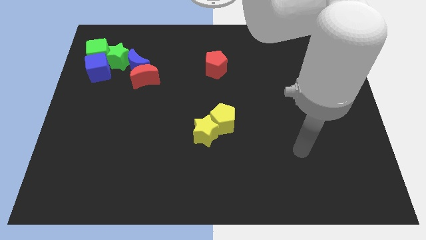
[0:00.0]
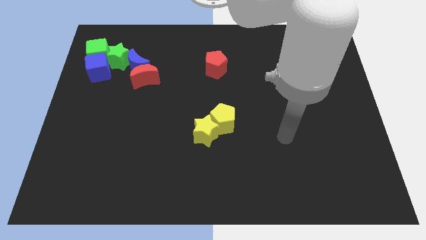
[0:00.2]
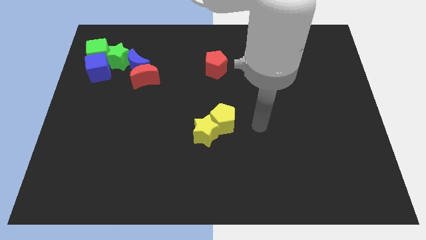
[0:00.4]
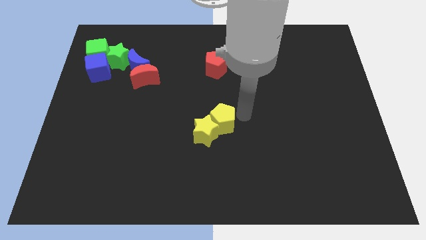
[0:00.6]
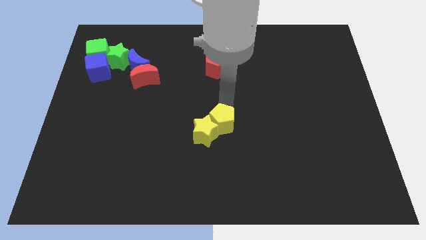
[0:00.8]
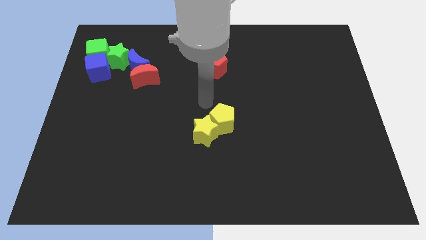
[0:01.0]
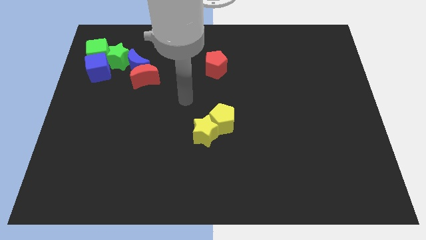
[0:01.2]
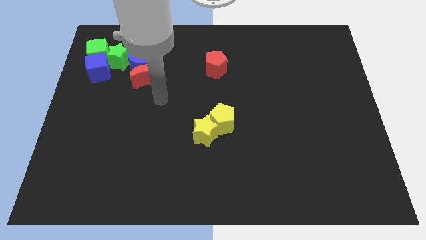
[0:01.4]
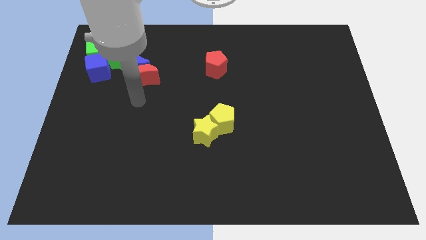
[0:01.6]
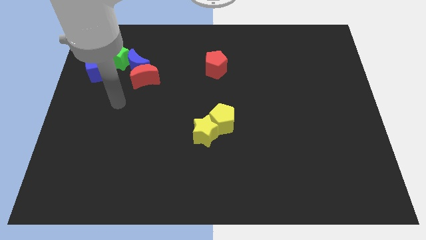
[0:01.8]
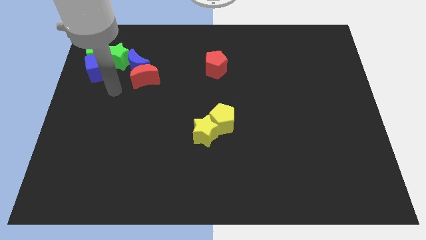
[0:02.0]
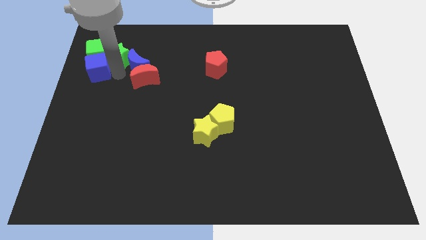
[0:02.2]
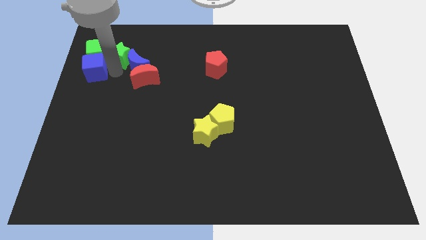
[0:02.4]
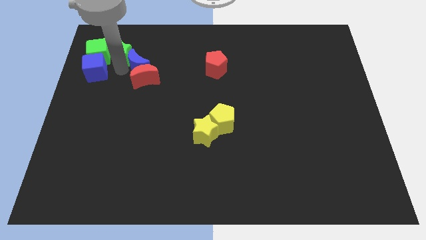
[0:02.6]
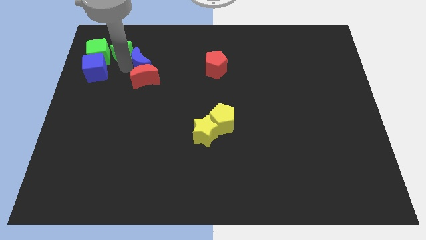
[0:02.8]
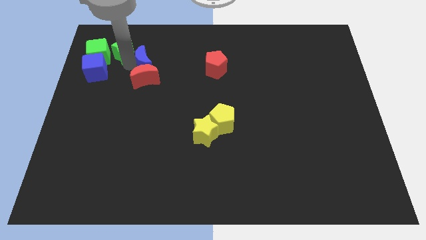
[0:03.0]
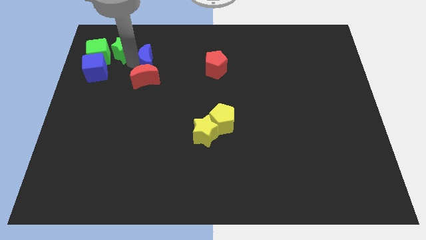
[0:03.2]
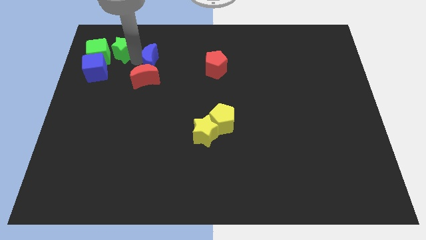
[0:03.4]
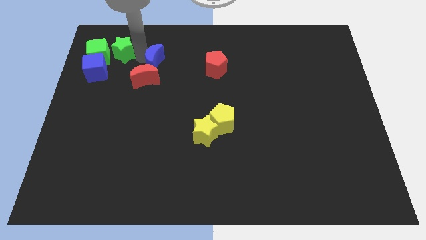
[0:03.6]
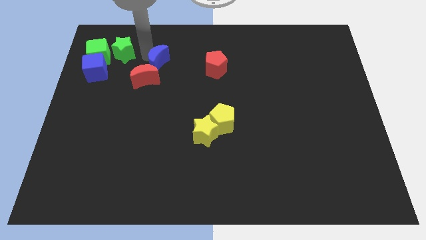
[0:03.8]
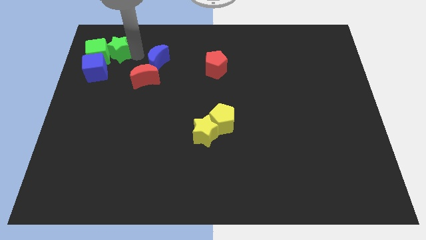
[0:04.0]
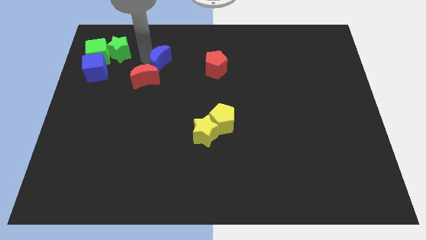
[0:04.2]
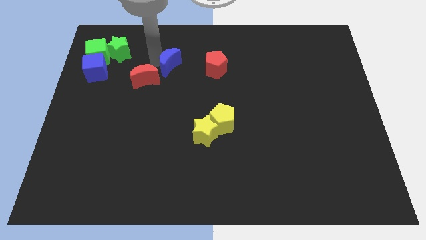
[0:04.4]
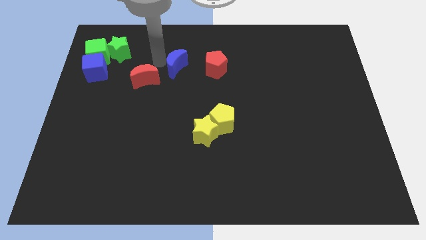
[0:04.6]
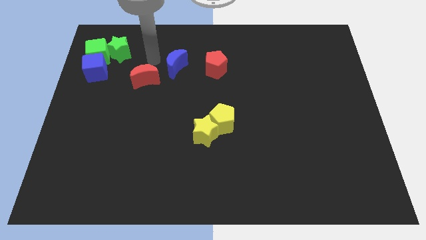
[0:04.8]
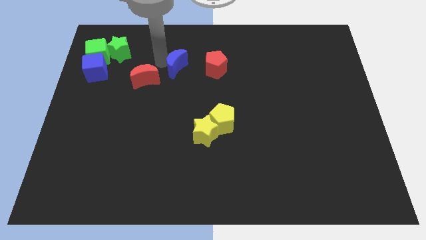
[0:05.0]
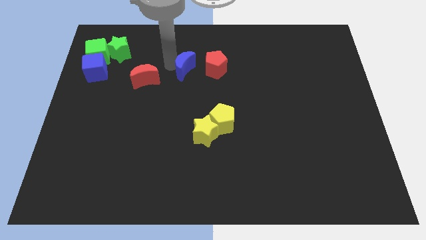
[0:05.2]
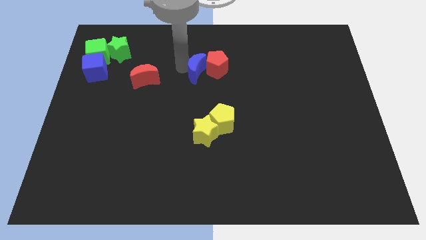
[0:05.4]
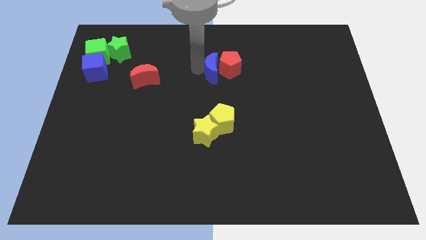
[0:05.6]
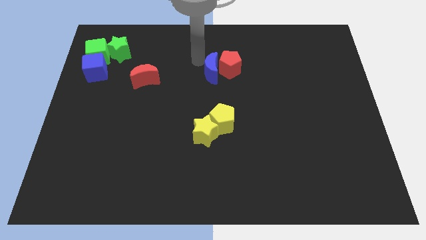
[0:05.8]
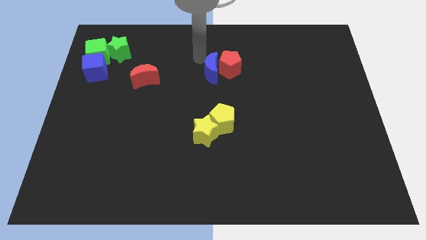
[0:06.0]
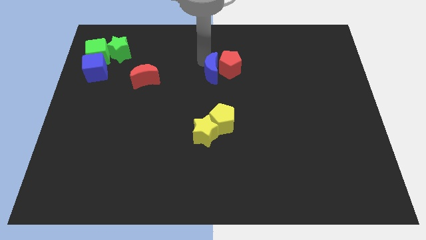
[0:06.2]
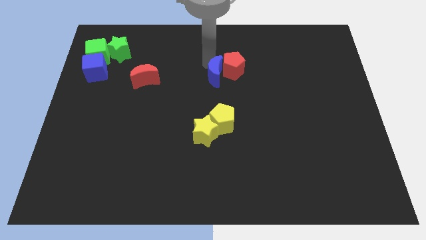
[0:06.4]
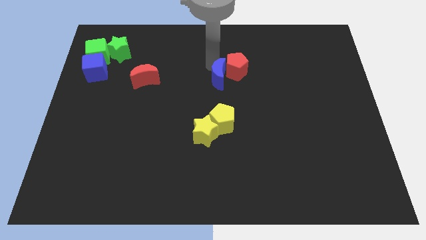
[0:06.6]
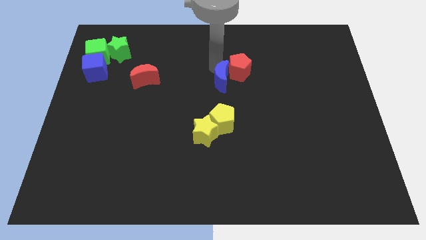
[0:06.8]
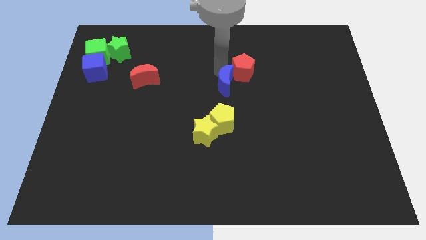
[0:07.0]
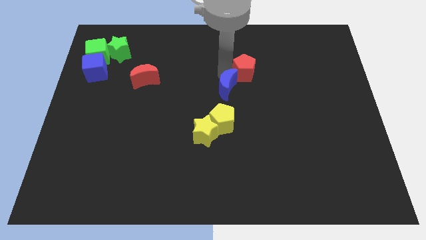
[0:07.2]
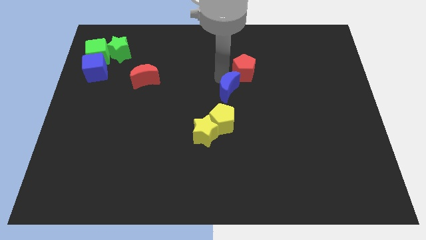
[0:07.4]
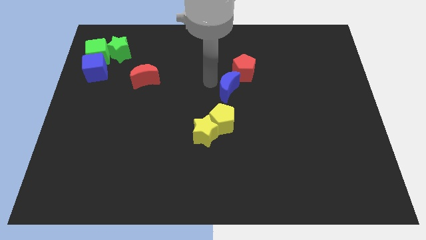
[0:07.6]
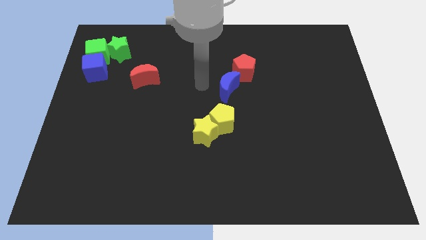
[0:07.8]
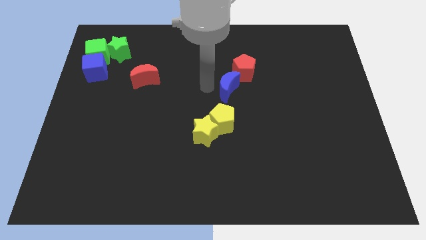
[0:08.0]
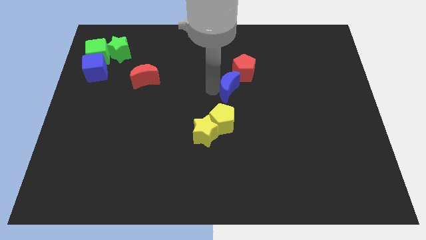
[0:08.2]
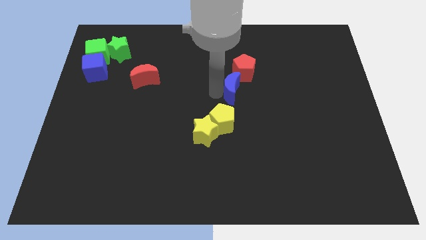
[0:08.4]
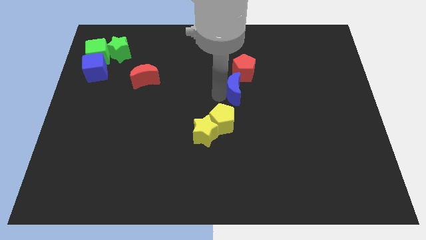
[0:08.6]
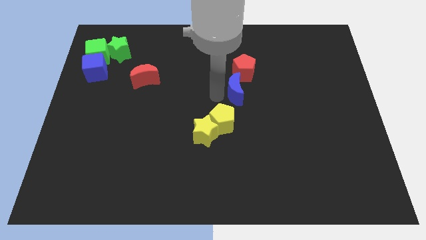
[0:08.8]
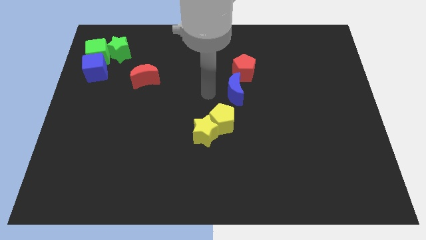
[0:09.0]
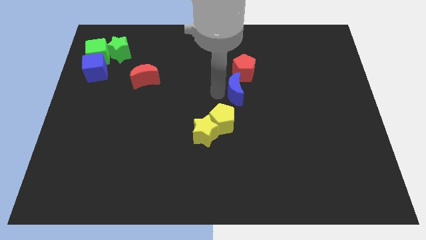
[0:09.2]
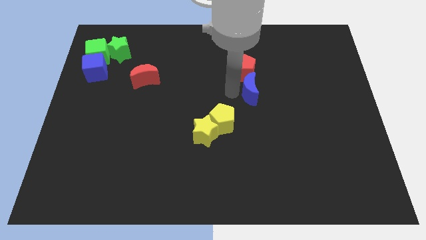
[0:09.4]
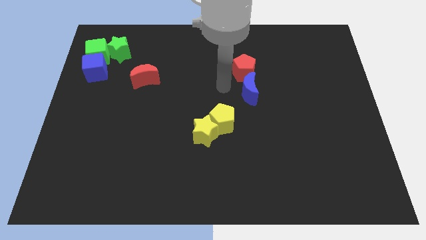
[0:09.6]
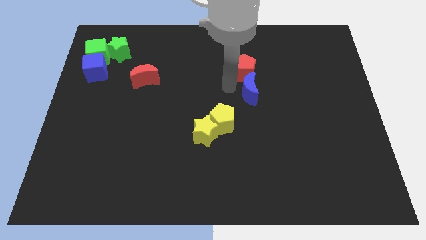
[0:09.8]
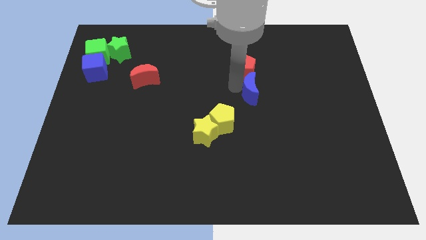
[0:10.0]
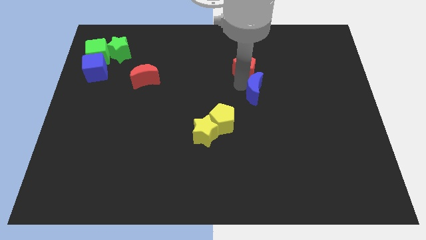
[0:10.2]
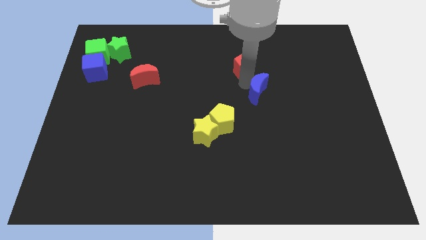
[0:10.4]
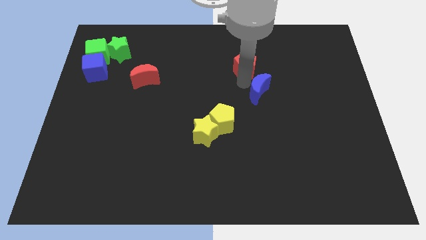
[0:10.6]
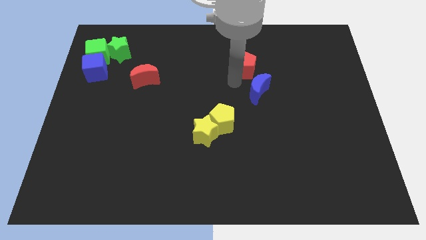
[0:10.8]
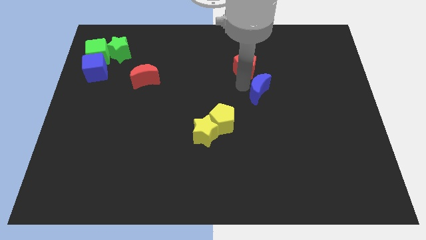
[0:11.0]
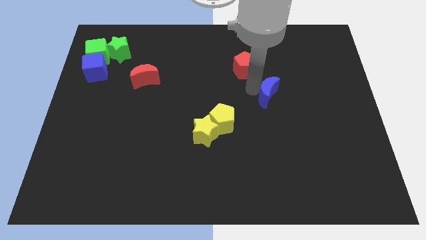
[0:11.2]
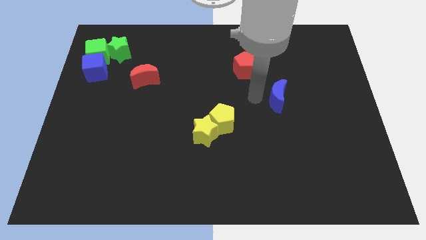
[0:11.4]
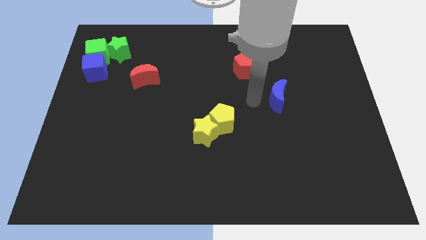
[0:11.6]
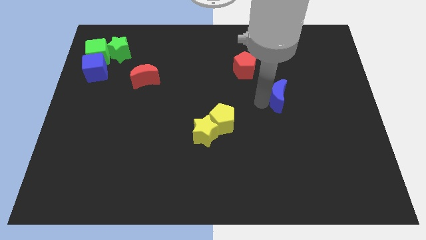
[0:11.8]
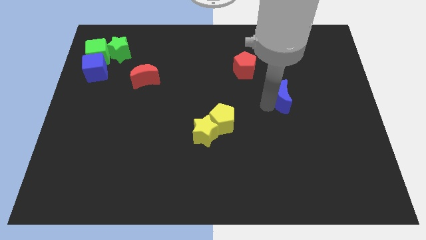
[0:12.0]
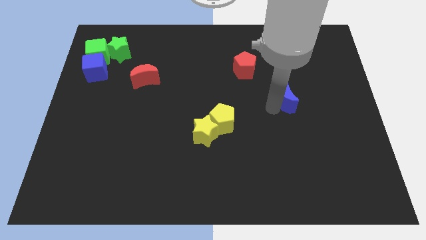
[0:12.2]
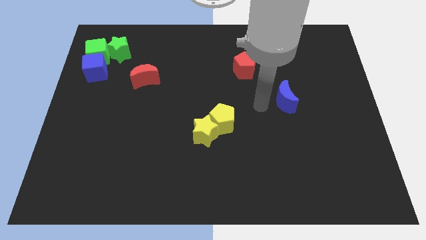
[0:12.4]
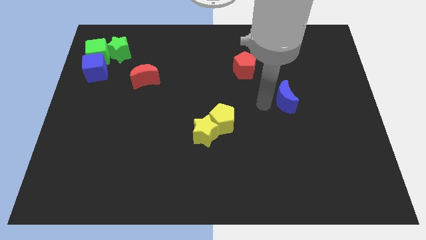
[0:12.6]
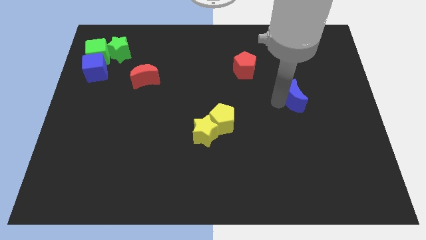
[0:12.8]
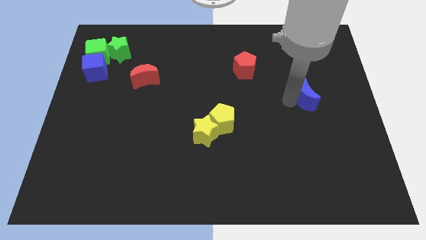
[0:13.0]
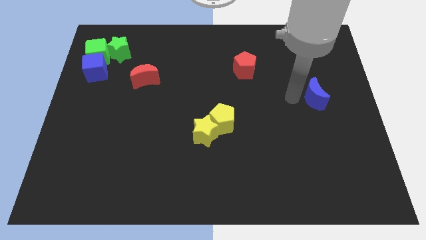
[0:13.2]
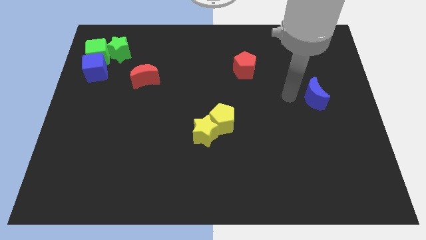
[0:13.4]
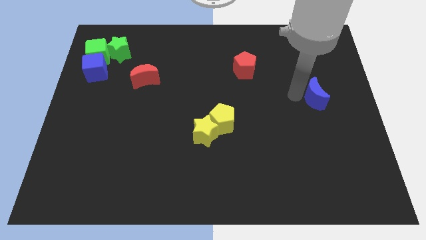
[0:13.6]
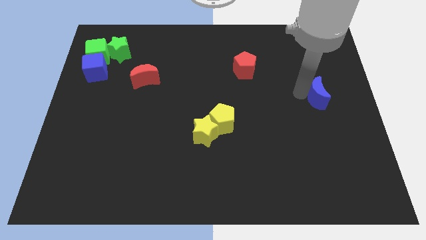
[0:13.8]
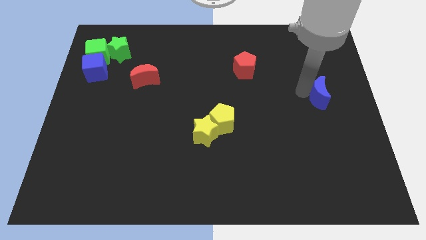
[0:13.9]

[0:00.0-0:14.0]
put the blue moon to the center right
